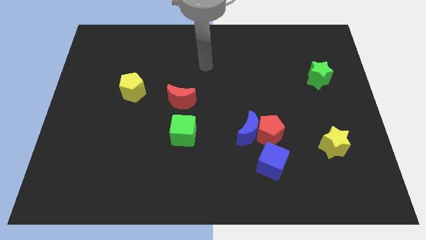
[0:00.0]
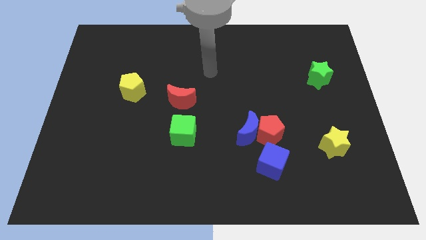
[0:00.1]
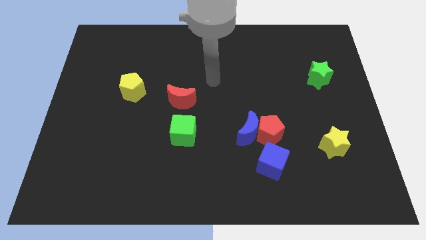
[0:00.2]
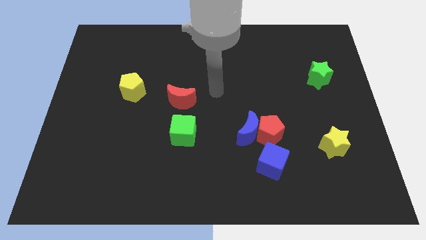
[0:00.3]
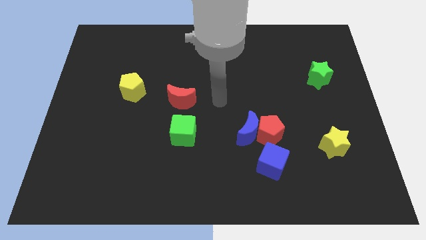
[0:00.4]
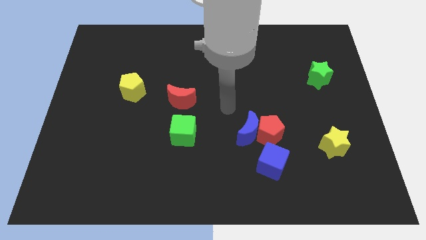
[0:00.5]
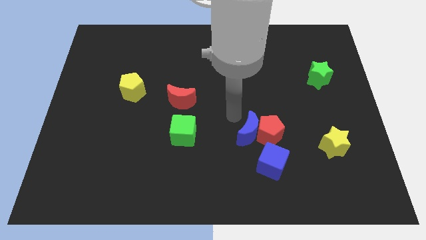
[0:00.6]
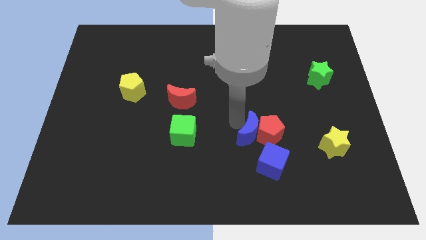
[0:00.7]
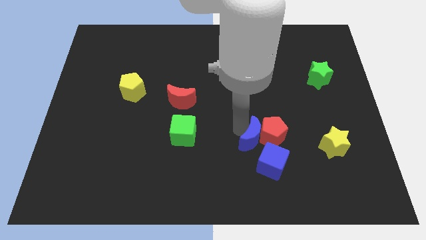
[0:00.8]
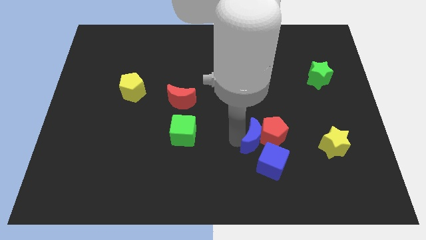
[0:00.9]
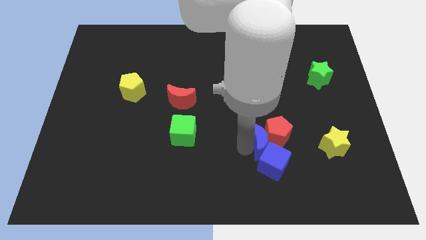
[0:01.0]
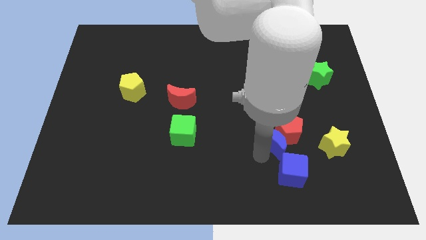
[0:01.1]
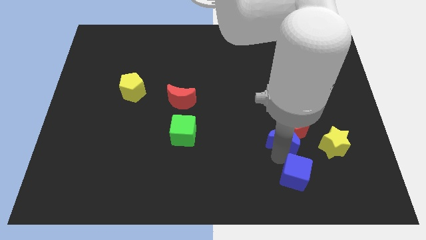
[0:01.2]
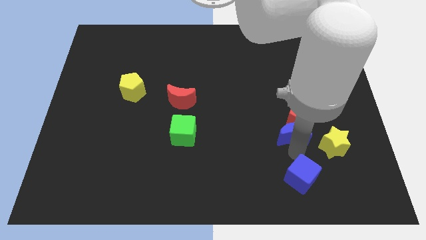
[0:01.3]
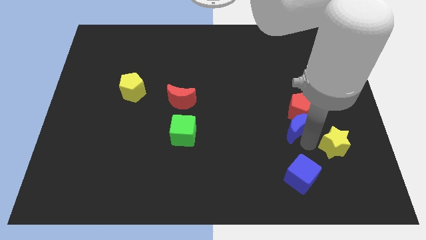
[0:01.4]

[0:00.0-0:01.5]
move the red pentagon away from the blue moon and blue cube

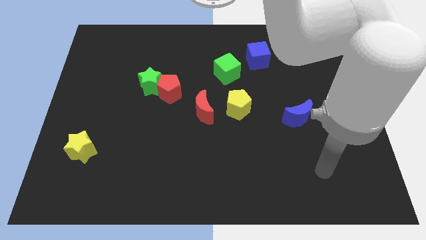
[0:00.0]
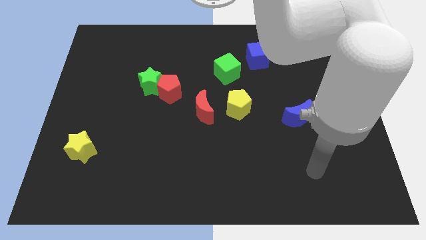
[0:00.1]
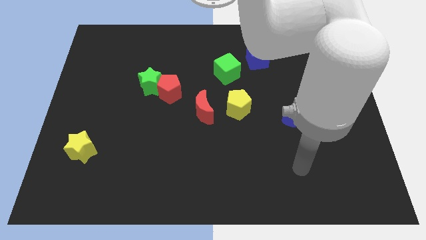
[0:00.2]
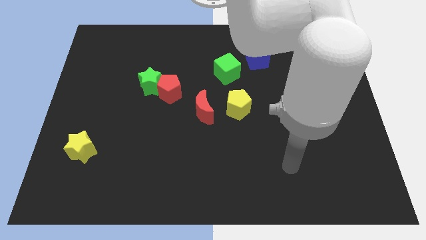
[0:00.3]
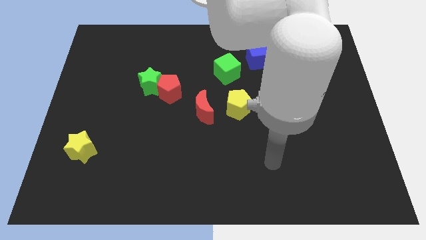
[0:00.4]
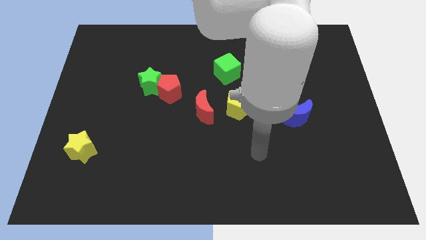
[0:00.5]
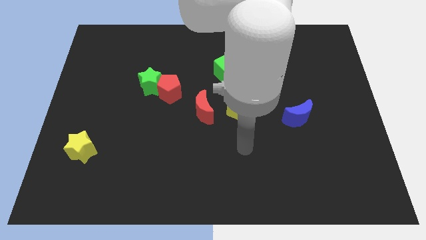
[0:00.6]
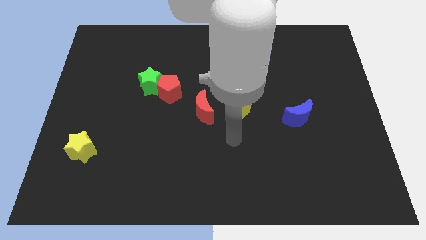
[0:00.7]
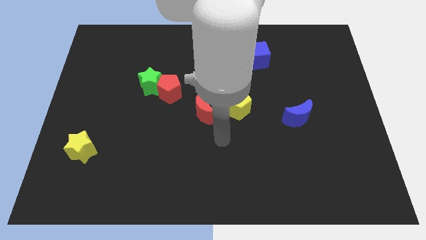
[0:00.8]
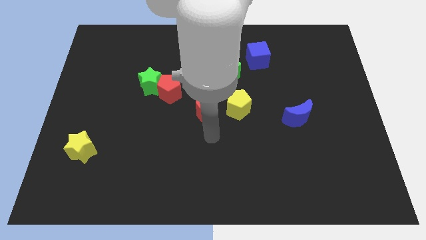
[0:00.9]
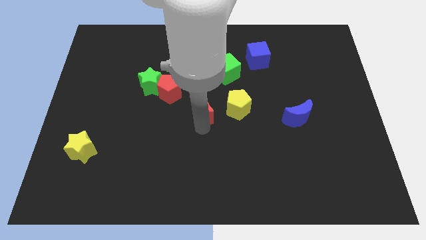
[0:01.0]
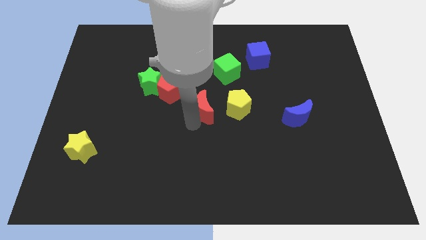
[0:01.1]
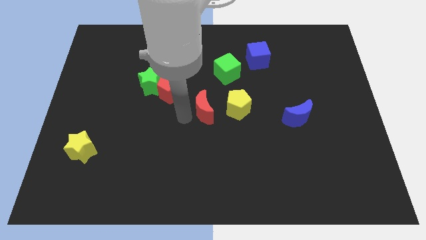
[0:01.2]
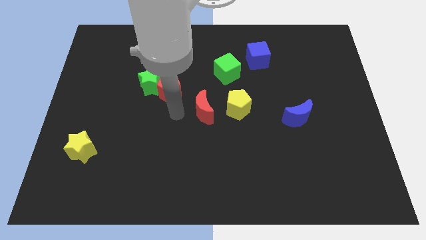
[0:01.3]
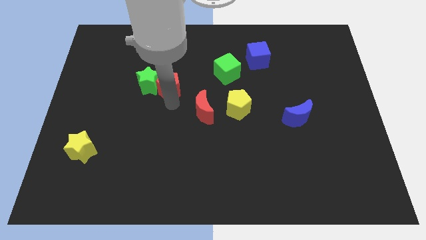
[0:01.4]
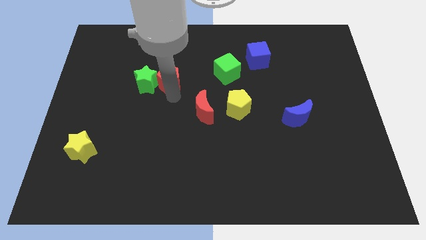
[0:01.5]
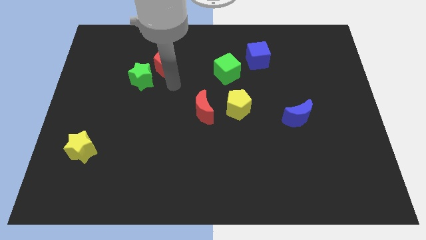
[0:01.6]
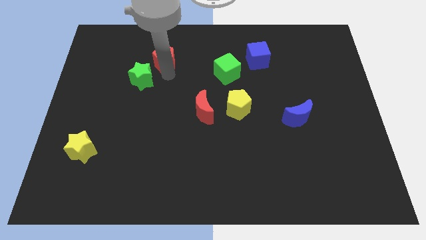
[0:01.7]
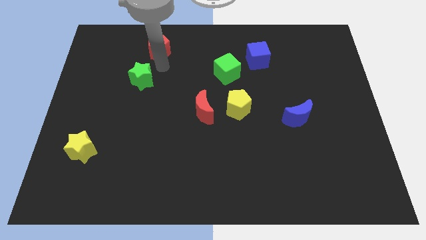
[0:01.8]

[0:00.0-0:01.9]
separate the green star from the red pentagon

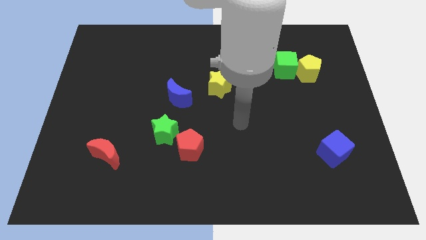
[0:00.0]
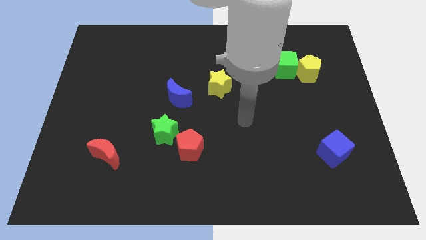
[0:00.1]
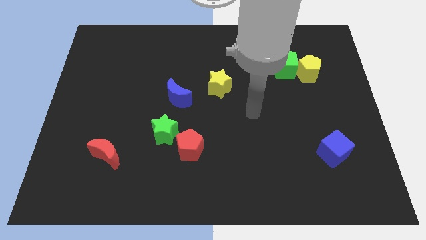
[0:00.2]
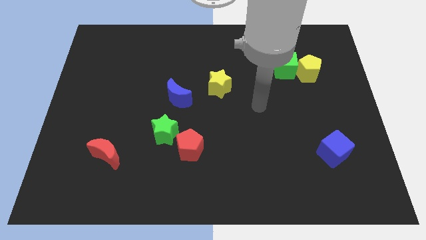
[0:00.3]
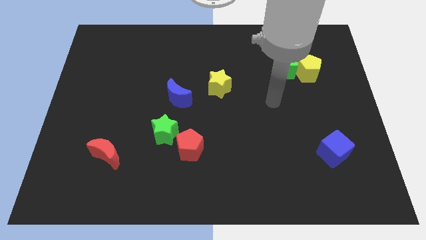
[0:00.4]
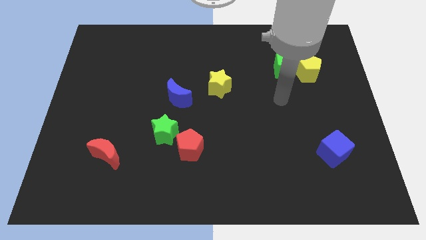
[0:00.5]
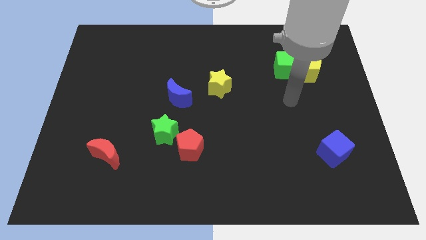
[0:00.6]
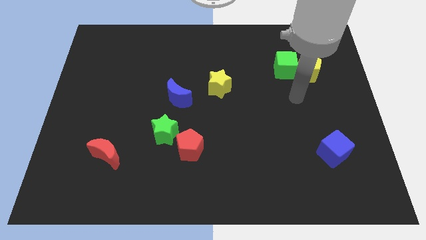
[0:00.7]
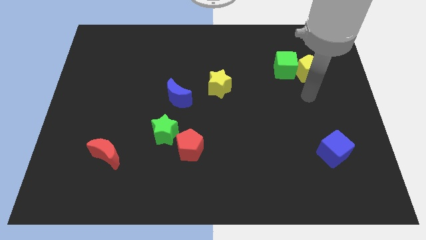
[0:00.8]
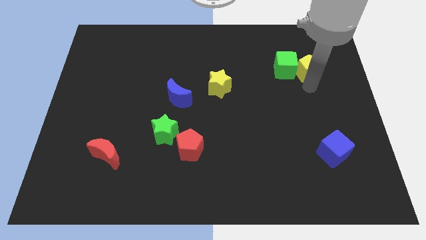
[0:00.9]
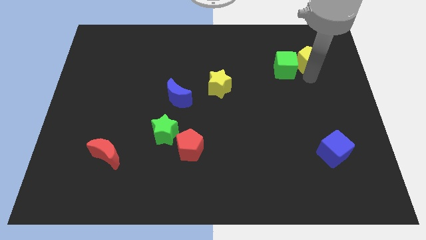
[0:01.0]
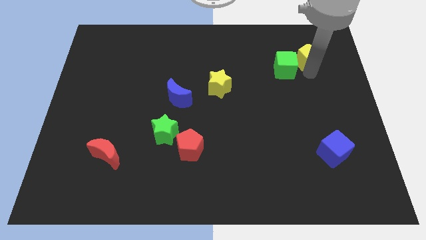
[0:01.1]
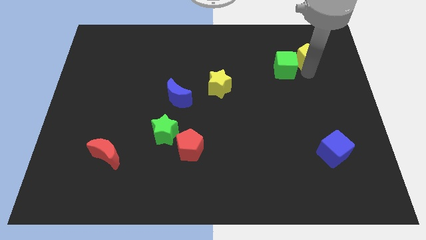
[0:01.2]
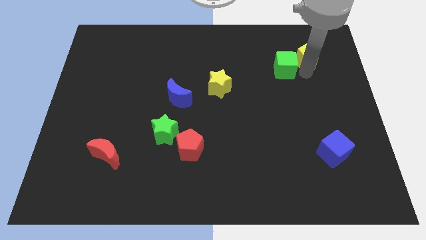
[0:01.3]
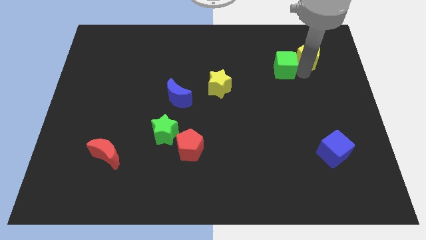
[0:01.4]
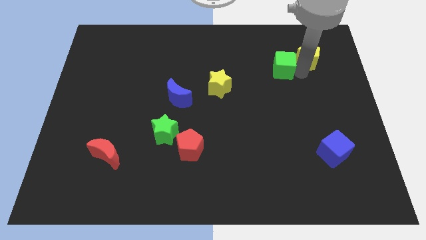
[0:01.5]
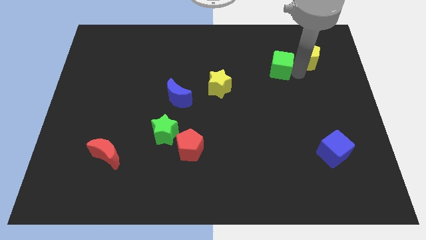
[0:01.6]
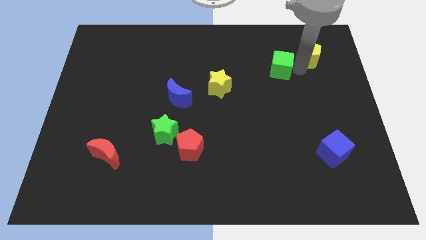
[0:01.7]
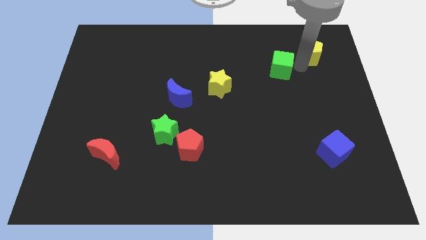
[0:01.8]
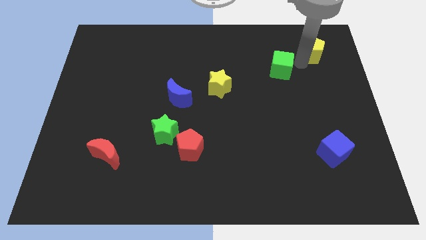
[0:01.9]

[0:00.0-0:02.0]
move the green cube away from the yellow pentagon

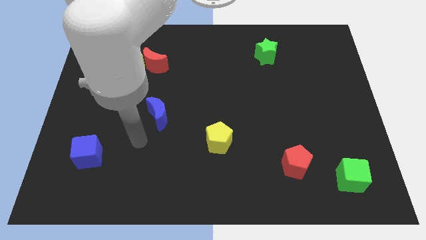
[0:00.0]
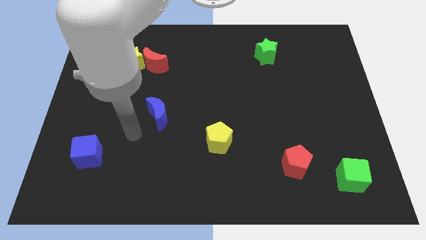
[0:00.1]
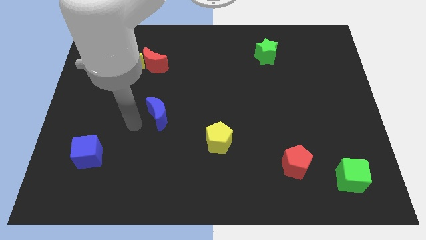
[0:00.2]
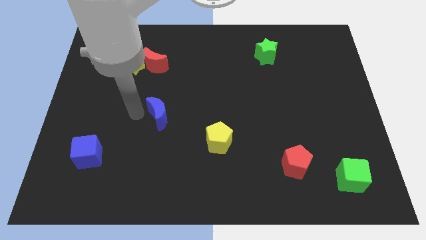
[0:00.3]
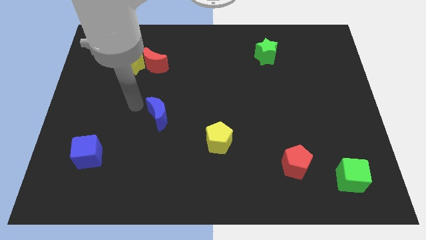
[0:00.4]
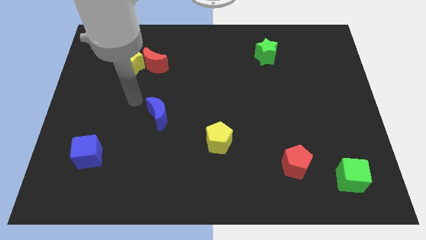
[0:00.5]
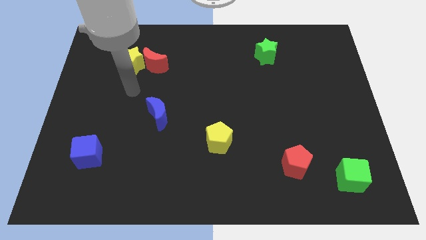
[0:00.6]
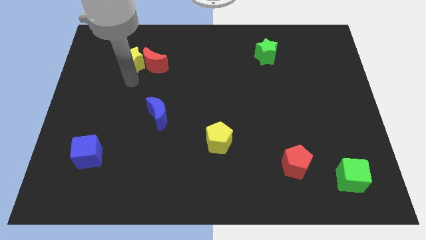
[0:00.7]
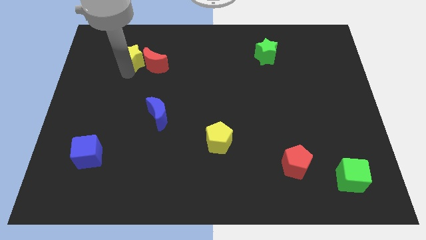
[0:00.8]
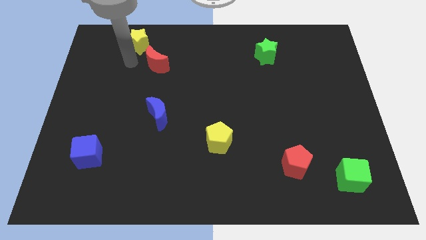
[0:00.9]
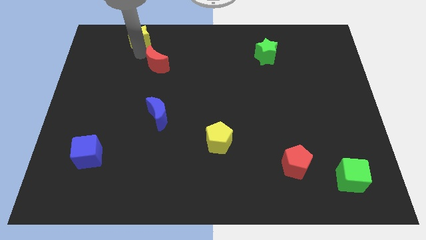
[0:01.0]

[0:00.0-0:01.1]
separate the red moon from the yellow star

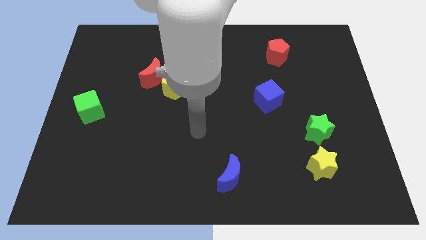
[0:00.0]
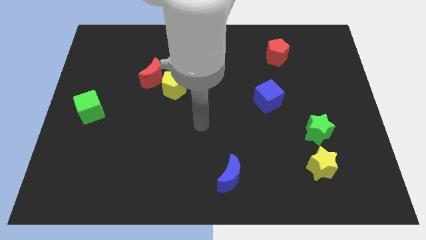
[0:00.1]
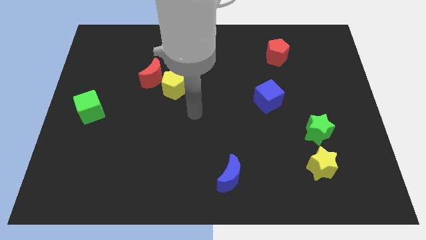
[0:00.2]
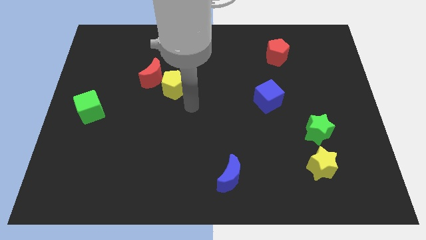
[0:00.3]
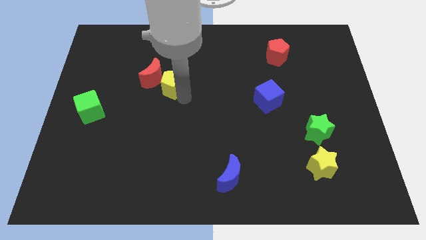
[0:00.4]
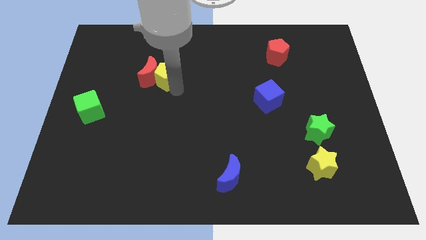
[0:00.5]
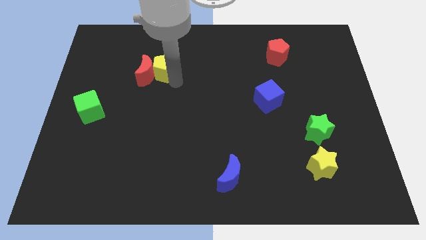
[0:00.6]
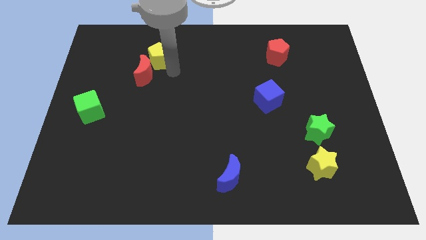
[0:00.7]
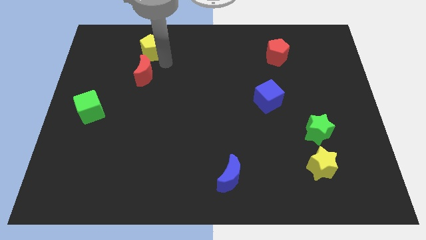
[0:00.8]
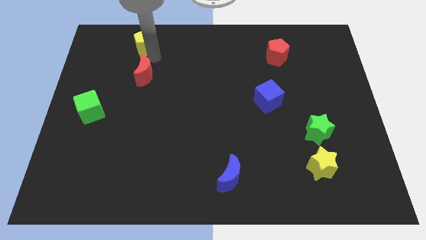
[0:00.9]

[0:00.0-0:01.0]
move the red moon away from the yellow pentagon

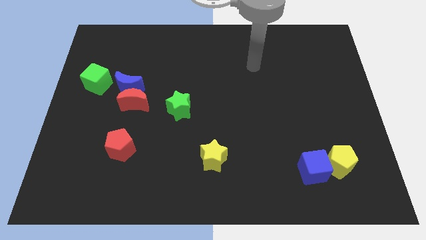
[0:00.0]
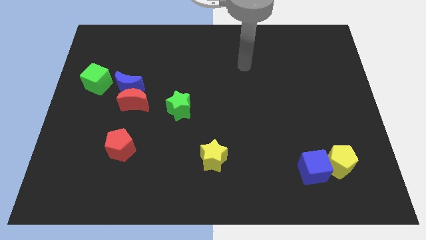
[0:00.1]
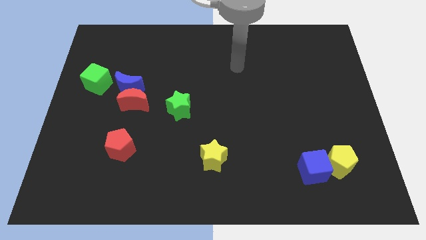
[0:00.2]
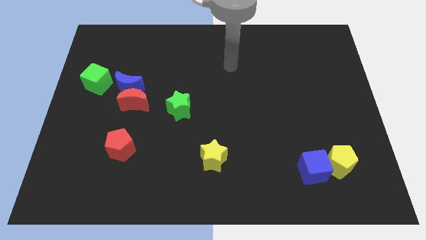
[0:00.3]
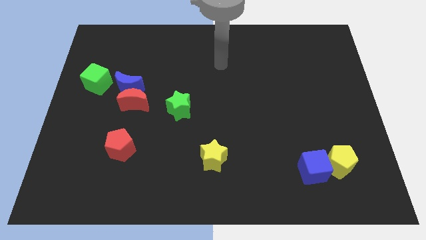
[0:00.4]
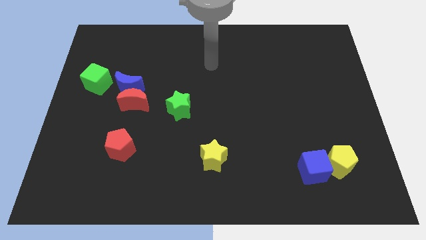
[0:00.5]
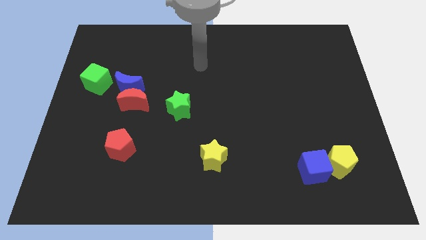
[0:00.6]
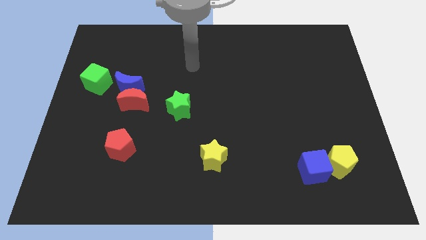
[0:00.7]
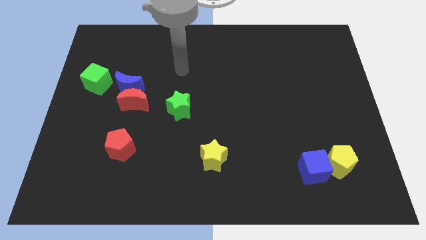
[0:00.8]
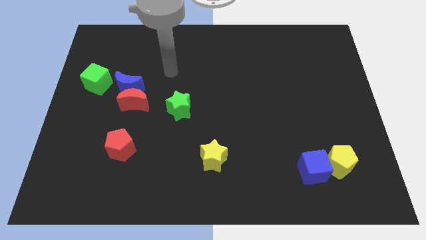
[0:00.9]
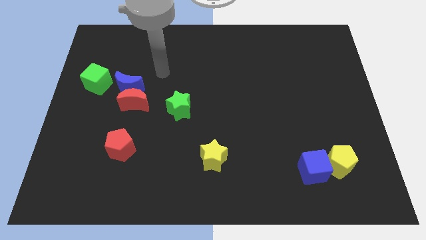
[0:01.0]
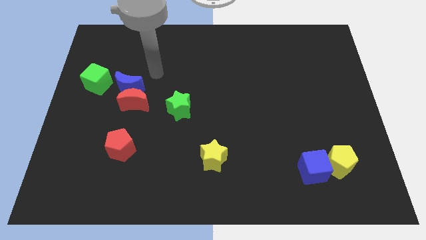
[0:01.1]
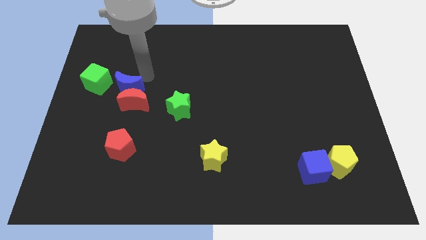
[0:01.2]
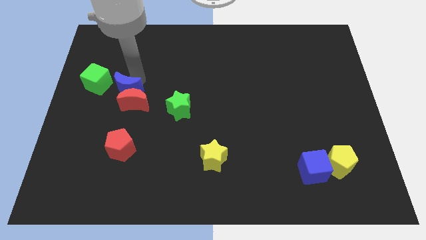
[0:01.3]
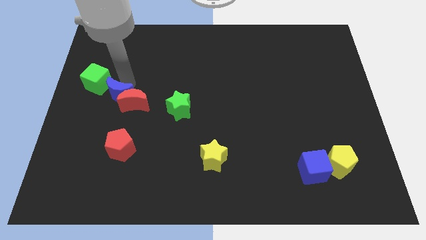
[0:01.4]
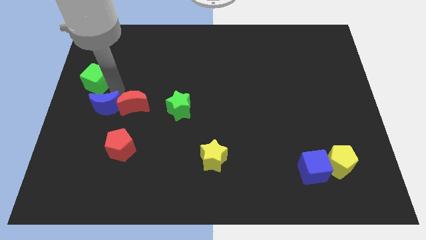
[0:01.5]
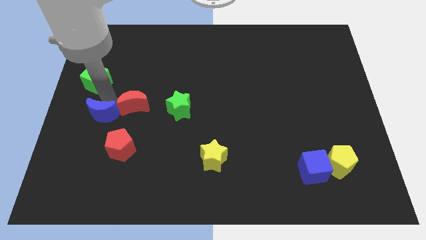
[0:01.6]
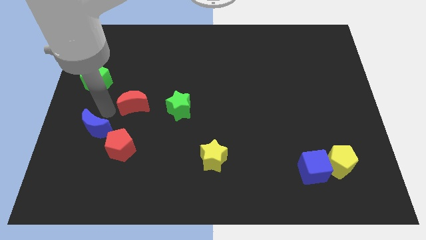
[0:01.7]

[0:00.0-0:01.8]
pull the red moon apart from the blue moon
